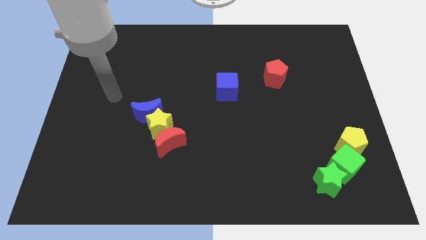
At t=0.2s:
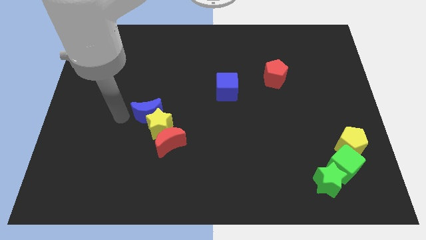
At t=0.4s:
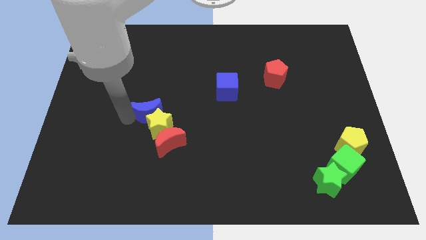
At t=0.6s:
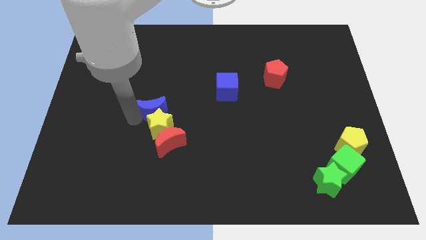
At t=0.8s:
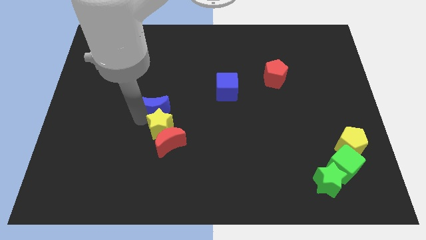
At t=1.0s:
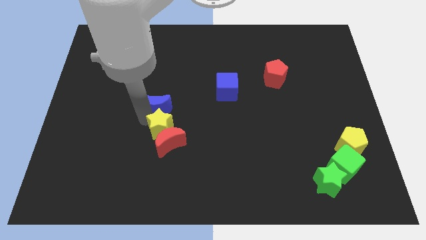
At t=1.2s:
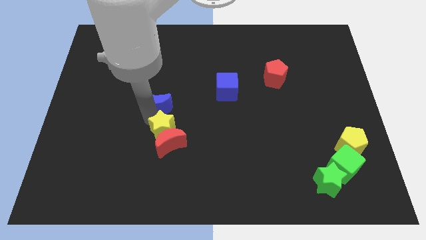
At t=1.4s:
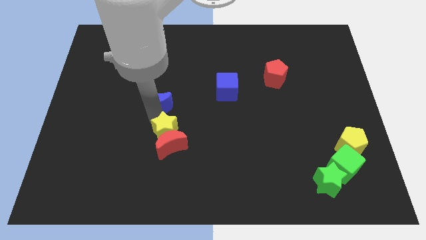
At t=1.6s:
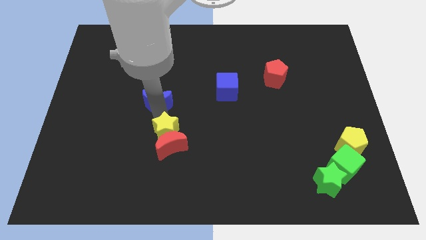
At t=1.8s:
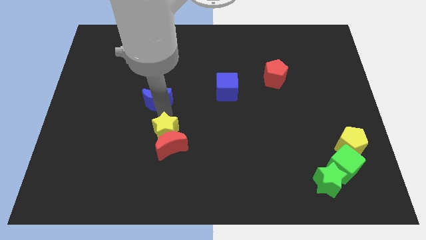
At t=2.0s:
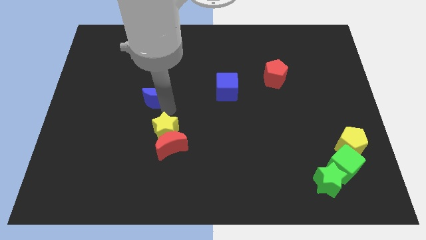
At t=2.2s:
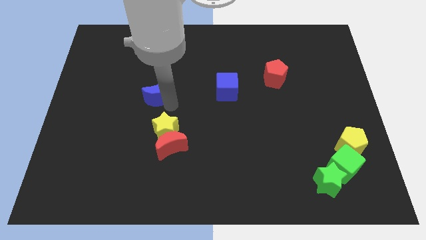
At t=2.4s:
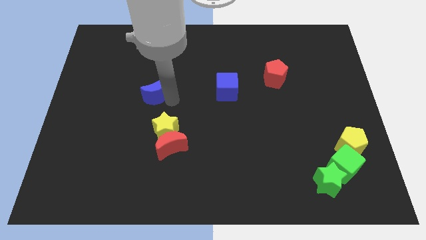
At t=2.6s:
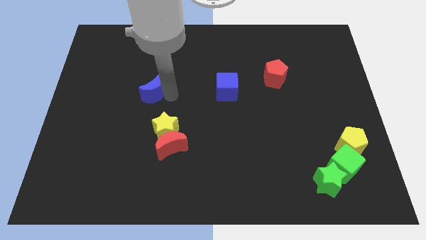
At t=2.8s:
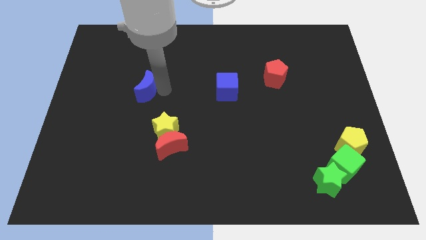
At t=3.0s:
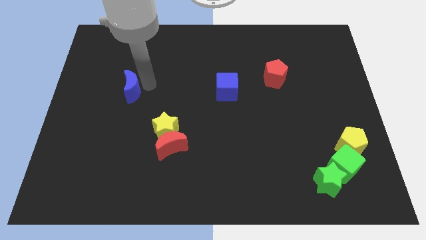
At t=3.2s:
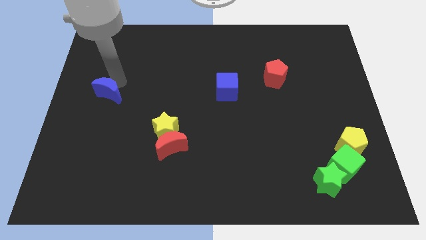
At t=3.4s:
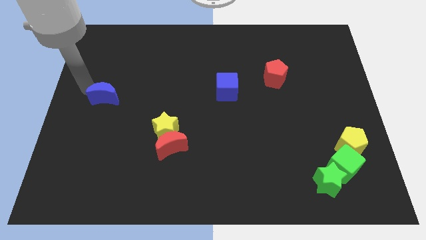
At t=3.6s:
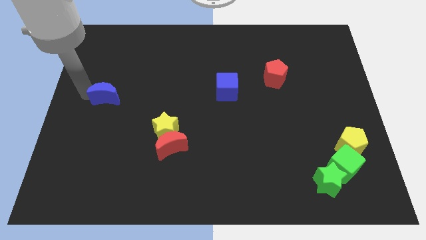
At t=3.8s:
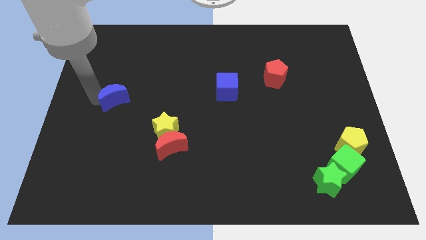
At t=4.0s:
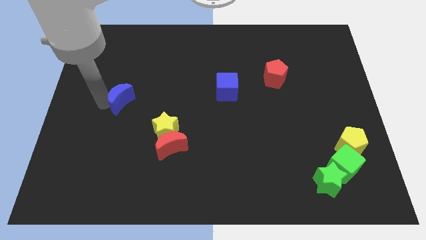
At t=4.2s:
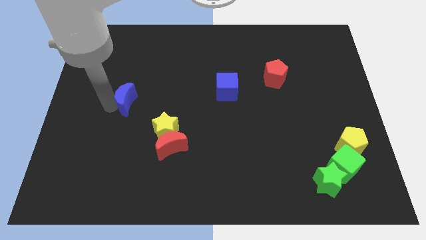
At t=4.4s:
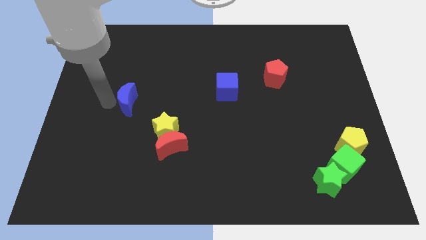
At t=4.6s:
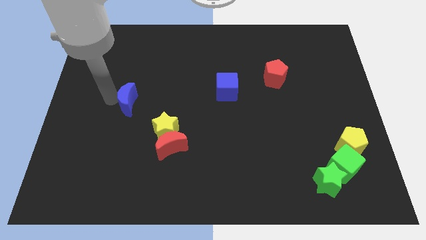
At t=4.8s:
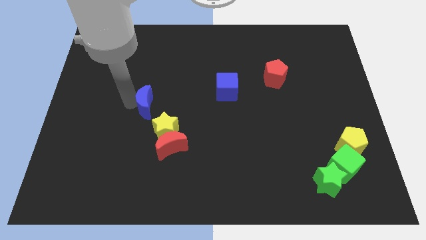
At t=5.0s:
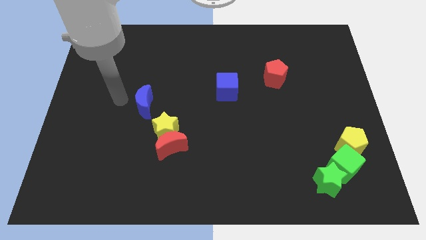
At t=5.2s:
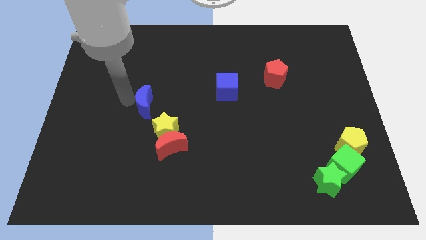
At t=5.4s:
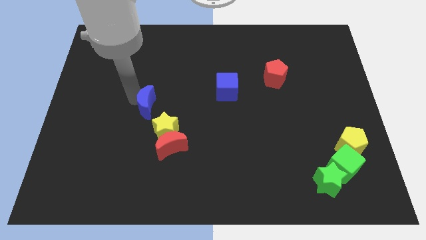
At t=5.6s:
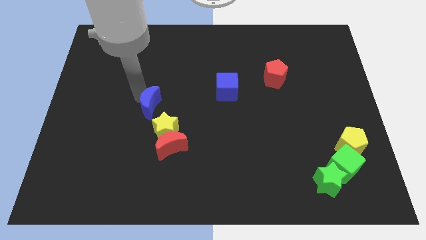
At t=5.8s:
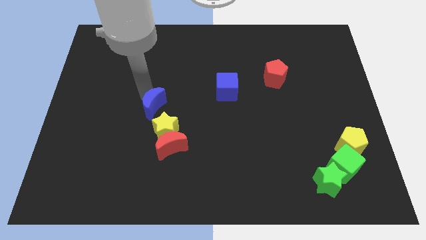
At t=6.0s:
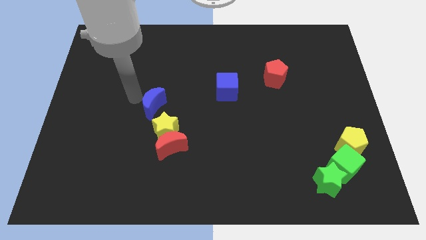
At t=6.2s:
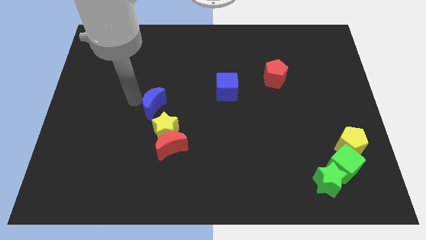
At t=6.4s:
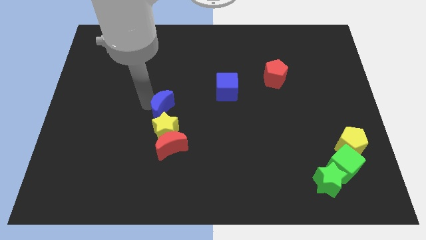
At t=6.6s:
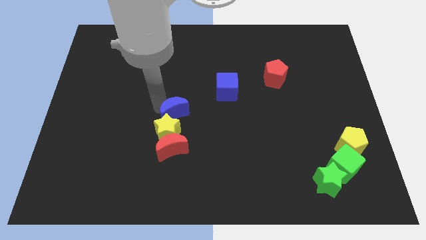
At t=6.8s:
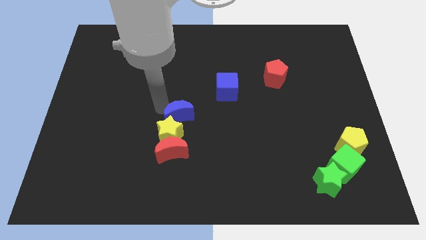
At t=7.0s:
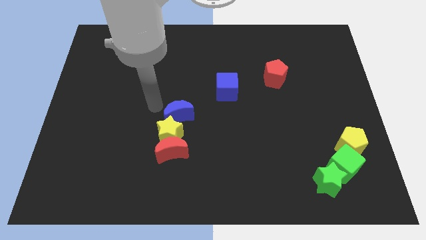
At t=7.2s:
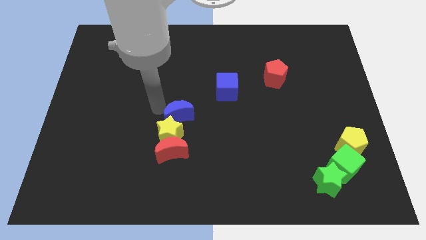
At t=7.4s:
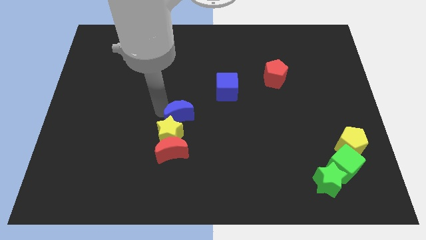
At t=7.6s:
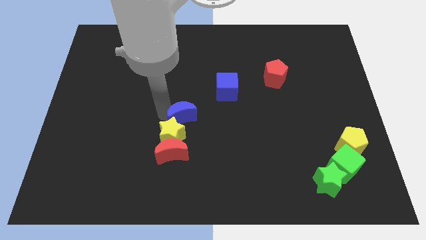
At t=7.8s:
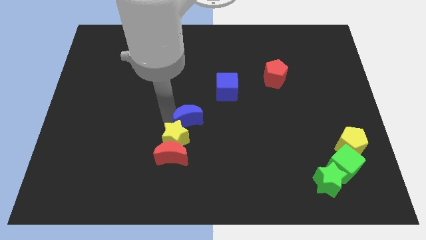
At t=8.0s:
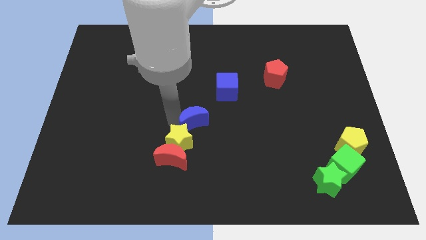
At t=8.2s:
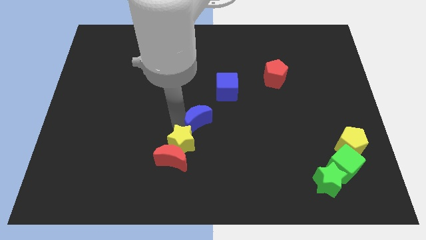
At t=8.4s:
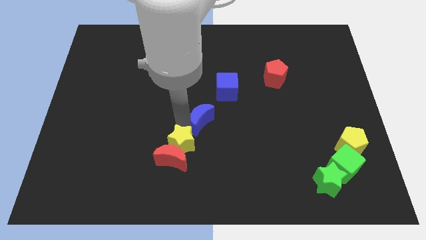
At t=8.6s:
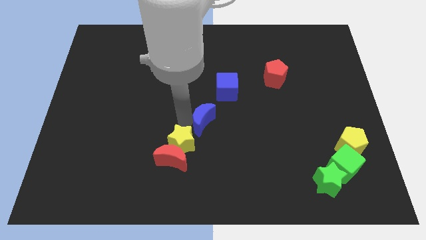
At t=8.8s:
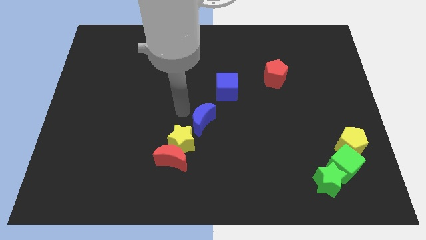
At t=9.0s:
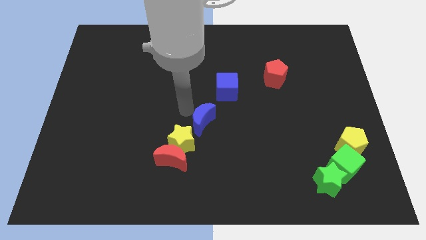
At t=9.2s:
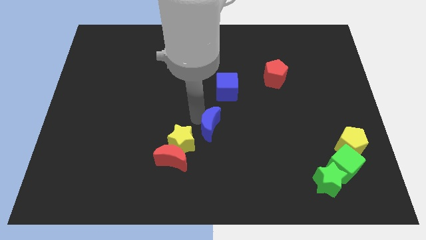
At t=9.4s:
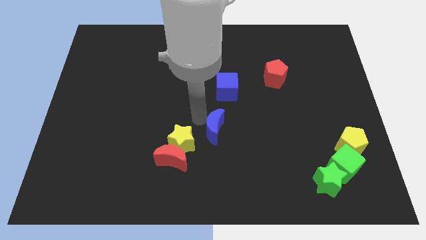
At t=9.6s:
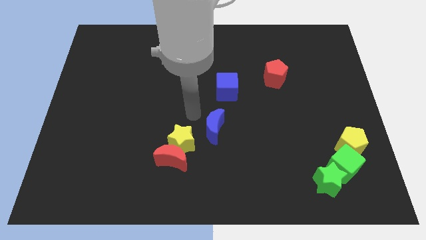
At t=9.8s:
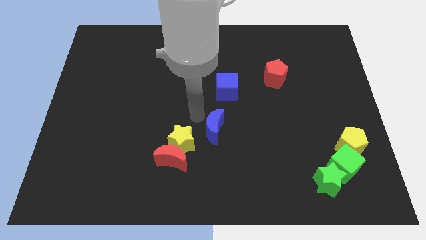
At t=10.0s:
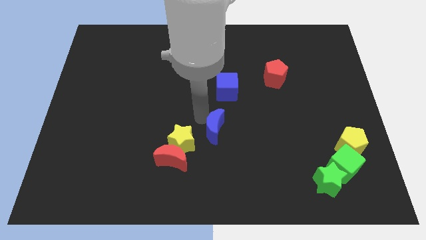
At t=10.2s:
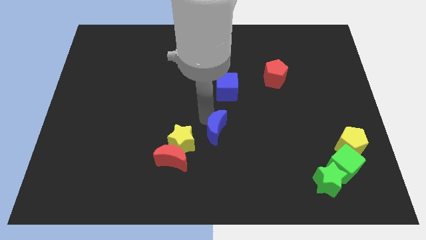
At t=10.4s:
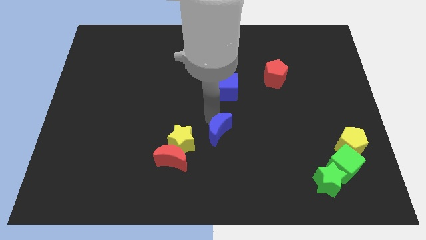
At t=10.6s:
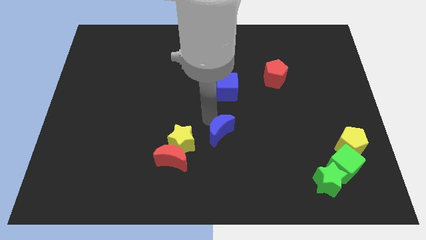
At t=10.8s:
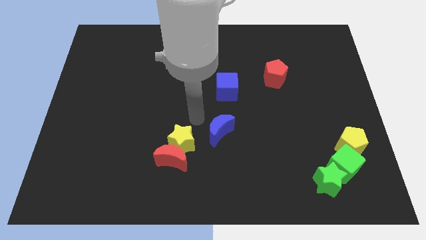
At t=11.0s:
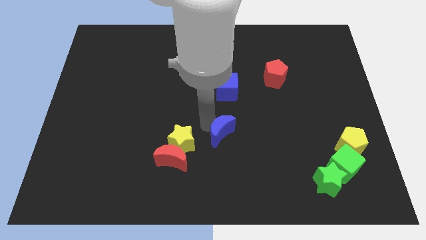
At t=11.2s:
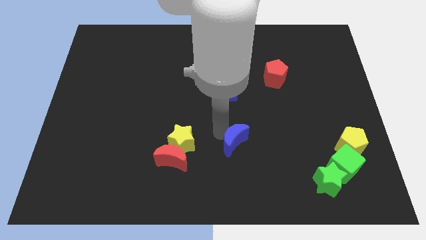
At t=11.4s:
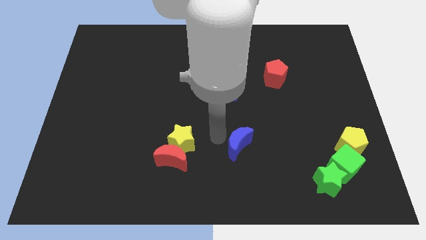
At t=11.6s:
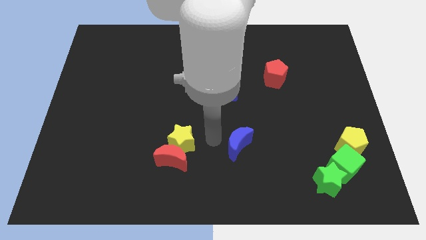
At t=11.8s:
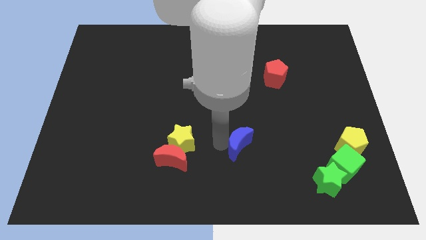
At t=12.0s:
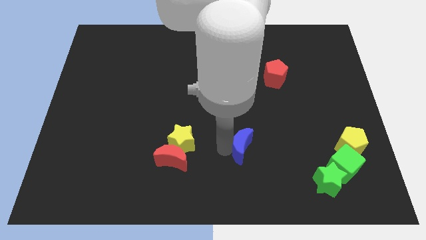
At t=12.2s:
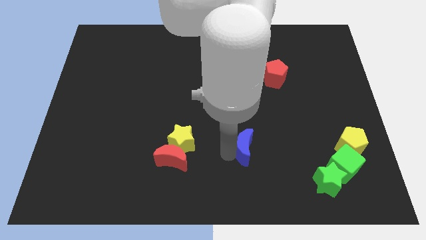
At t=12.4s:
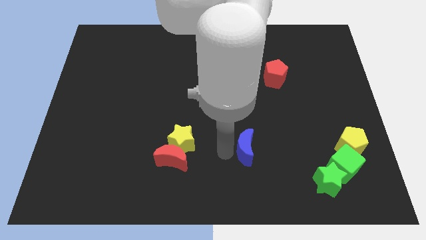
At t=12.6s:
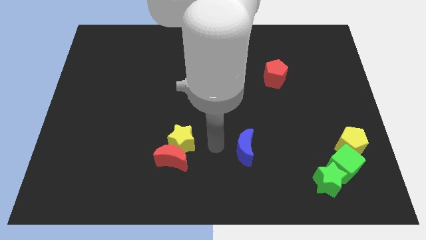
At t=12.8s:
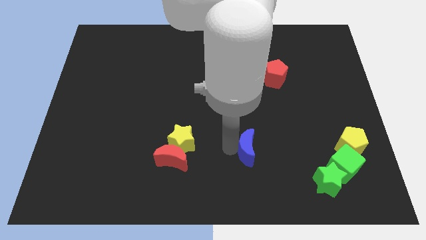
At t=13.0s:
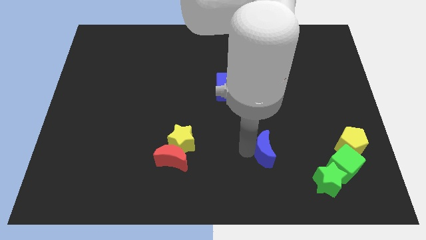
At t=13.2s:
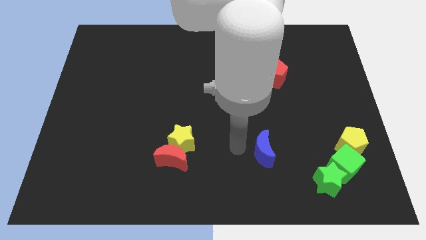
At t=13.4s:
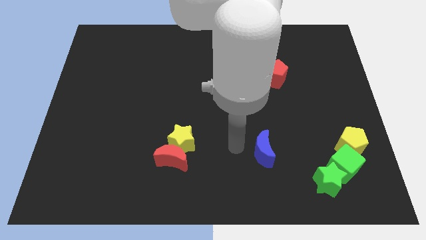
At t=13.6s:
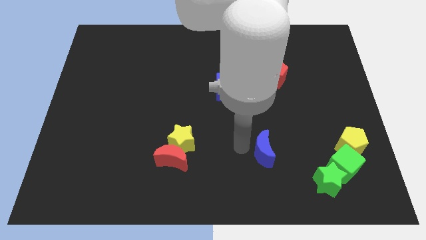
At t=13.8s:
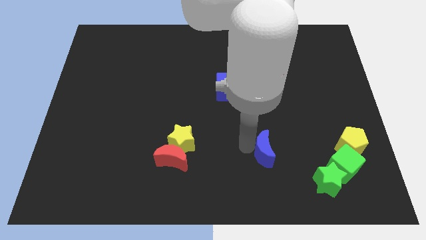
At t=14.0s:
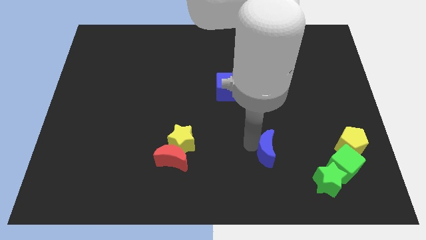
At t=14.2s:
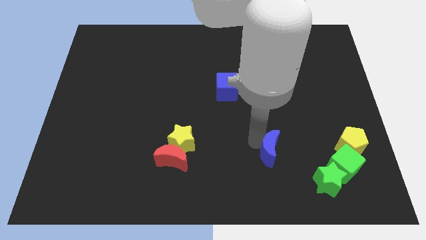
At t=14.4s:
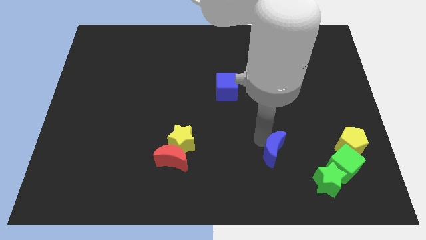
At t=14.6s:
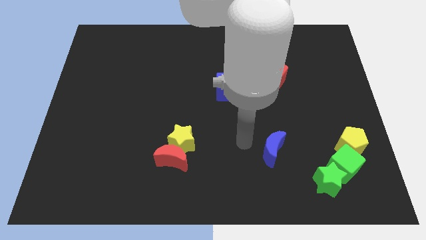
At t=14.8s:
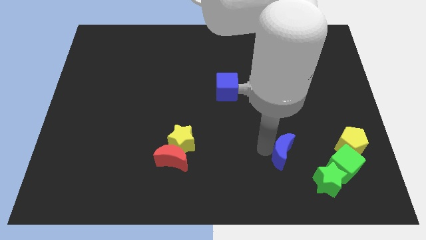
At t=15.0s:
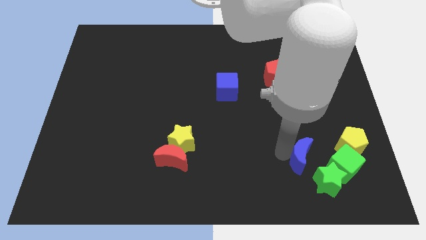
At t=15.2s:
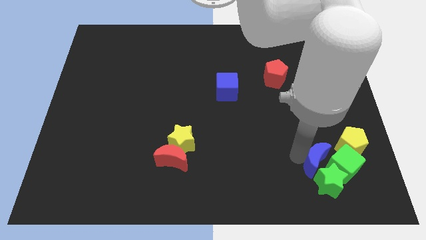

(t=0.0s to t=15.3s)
push the blue moon next to the green cube
